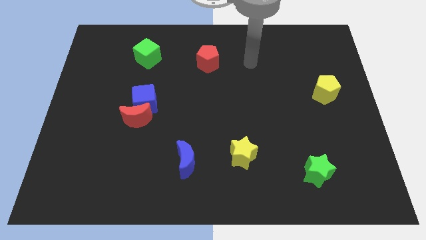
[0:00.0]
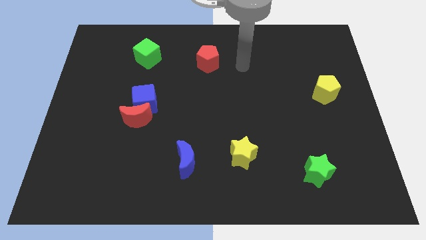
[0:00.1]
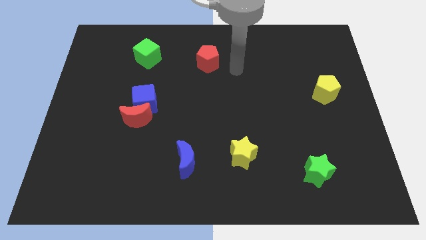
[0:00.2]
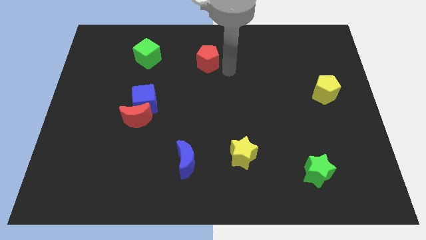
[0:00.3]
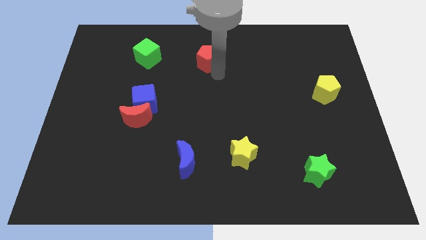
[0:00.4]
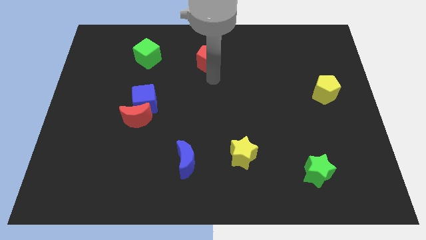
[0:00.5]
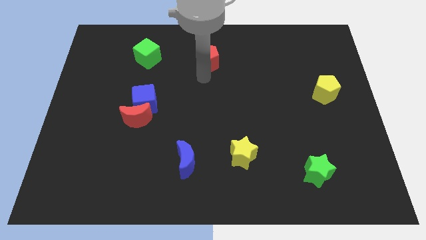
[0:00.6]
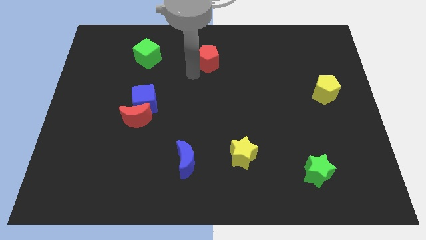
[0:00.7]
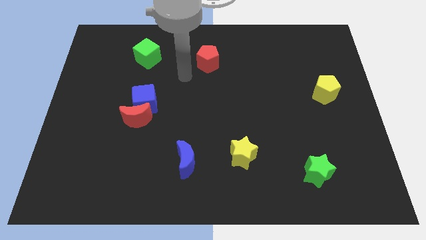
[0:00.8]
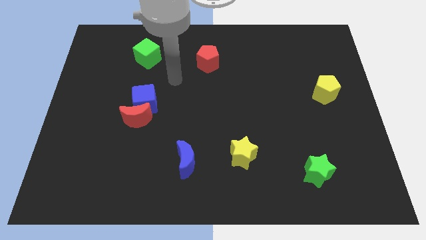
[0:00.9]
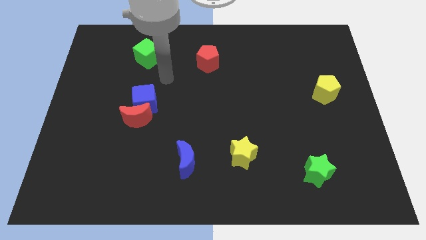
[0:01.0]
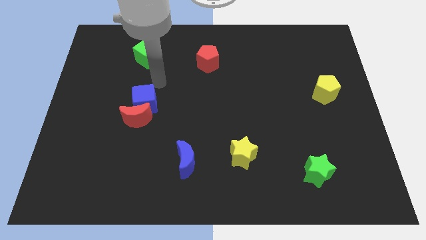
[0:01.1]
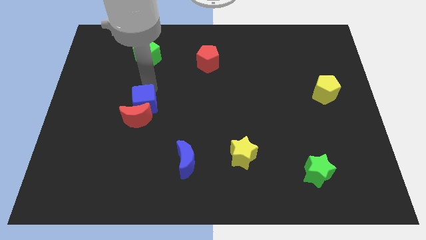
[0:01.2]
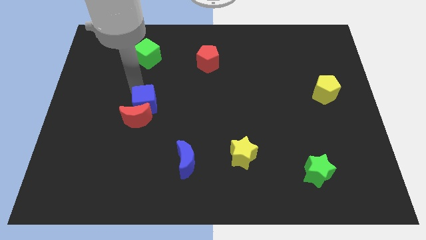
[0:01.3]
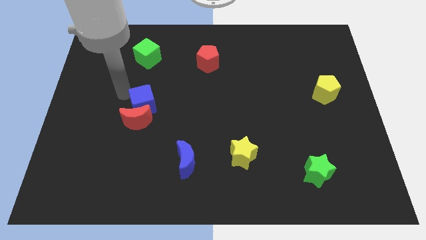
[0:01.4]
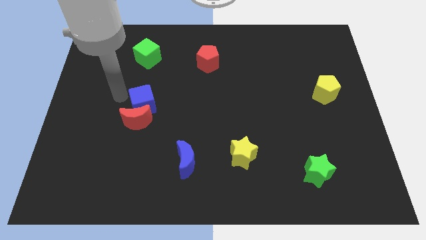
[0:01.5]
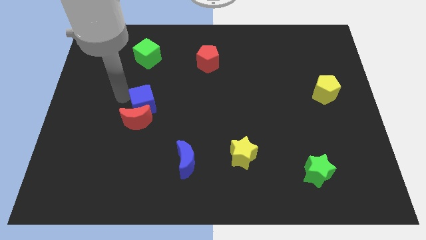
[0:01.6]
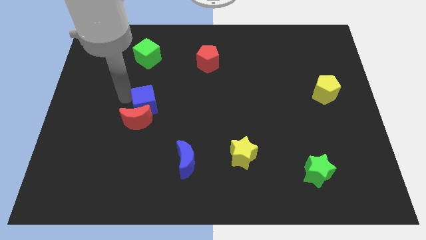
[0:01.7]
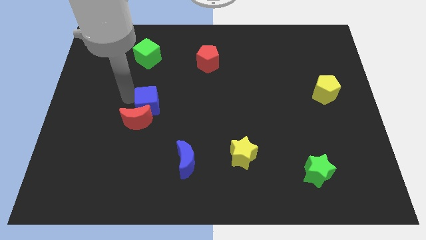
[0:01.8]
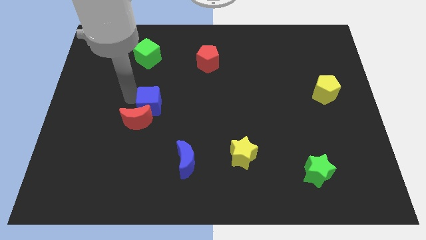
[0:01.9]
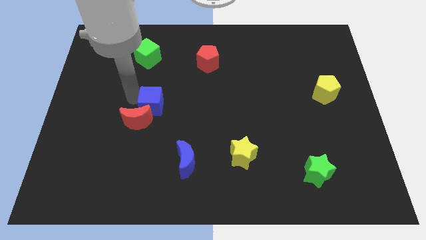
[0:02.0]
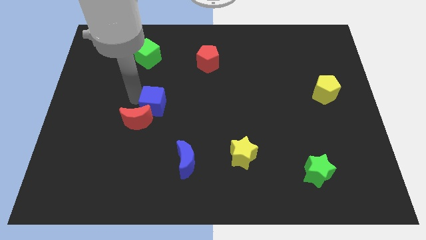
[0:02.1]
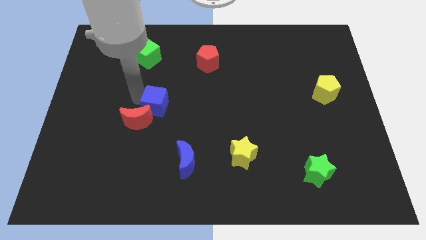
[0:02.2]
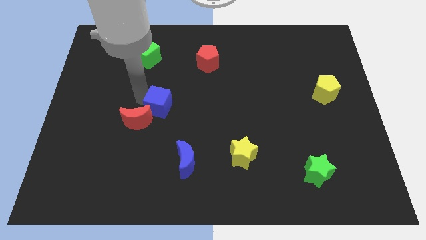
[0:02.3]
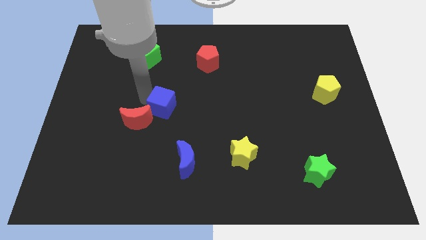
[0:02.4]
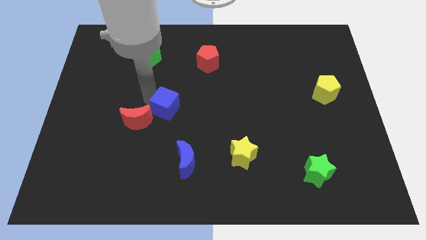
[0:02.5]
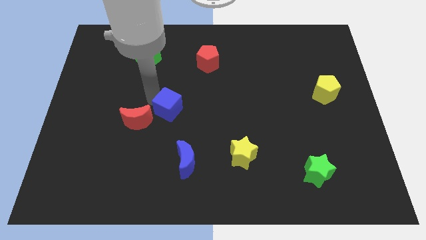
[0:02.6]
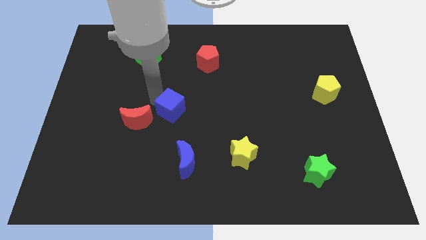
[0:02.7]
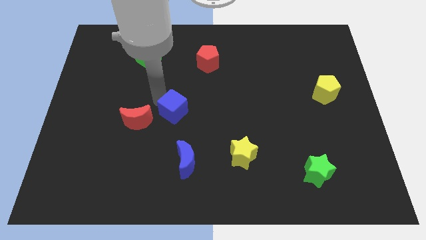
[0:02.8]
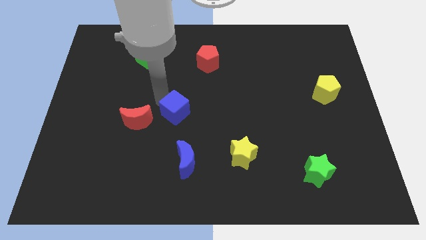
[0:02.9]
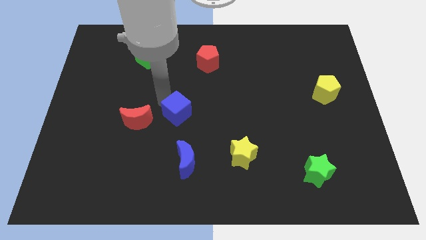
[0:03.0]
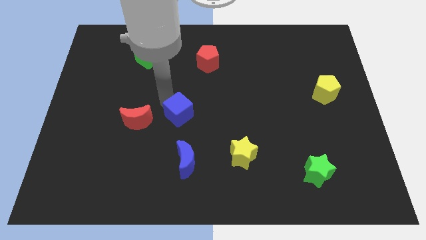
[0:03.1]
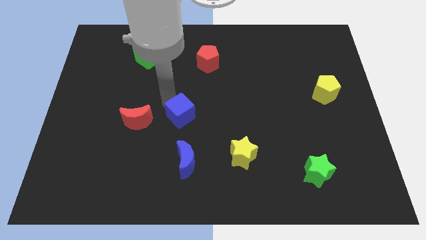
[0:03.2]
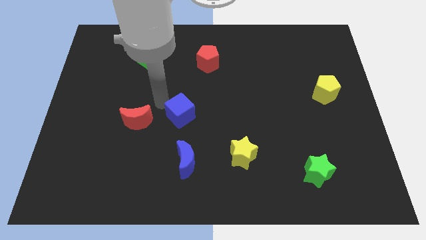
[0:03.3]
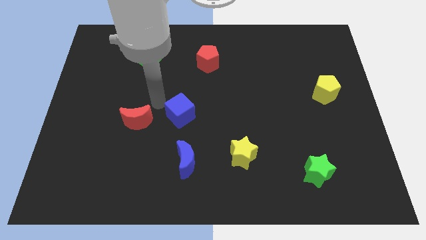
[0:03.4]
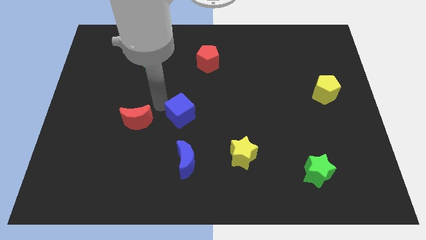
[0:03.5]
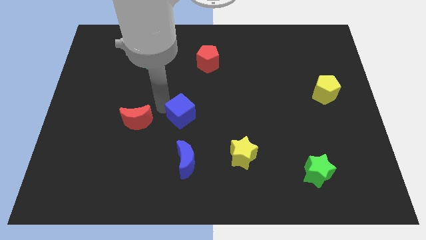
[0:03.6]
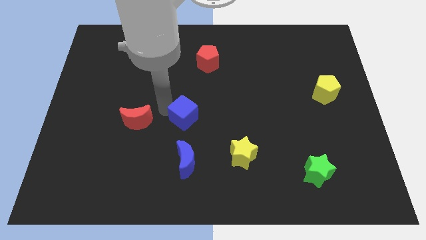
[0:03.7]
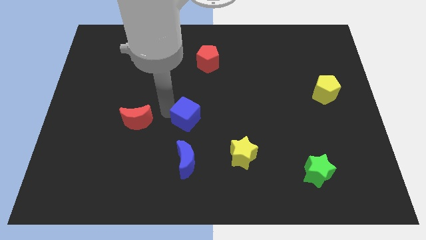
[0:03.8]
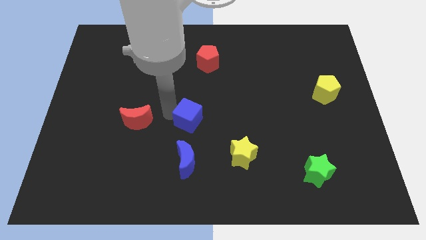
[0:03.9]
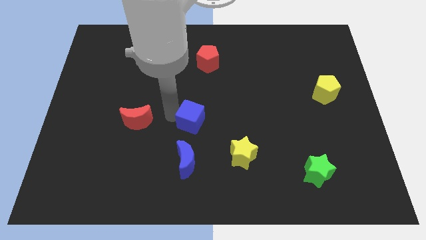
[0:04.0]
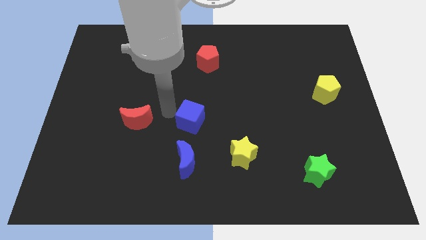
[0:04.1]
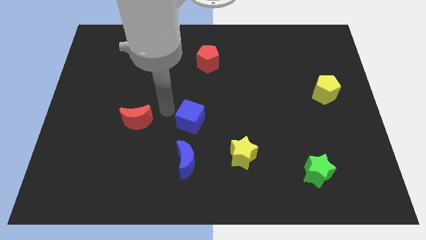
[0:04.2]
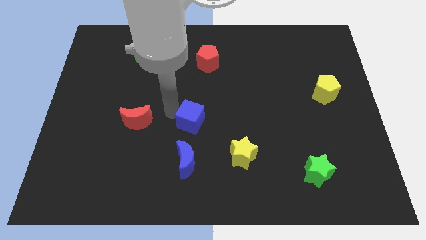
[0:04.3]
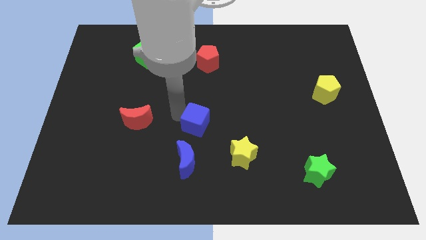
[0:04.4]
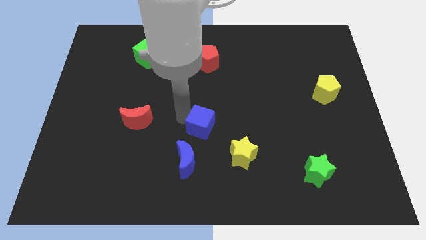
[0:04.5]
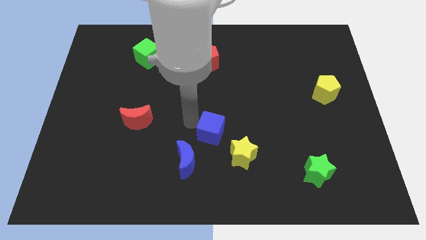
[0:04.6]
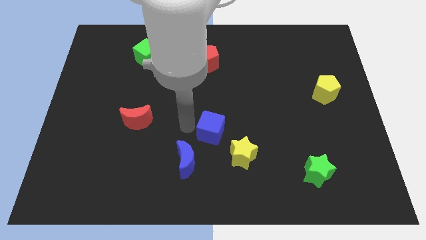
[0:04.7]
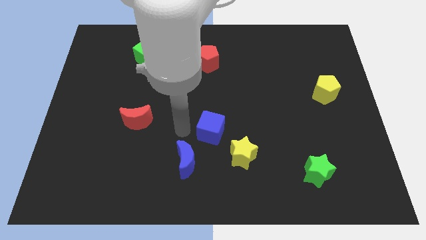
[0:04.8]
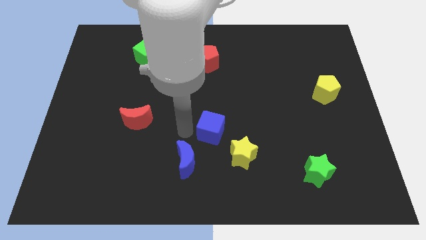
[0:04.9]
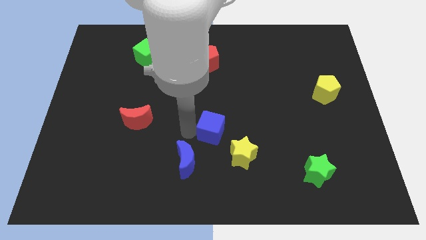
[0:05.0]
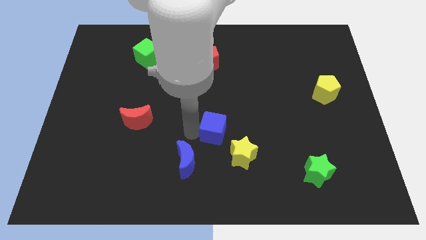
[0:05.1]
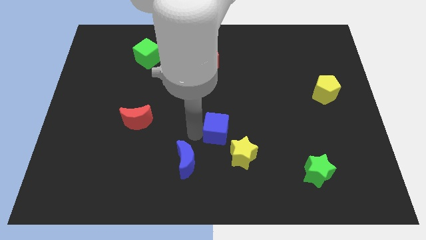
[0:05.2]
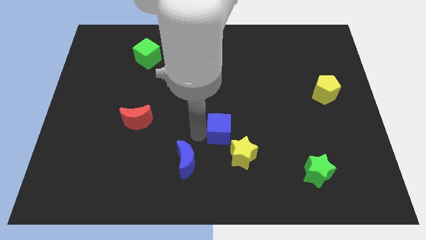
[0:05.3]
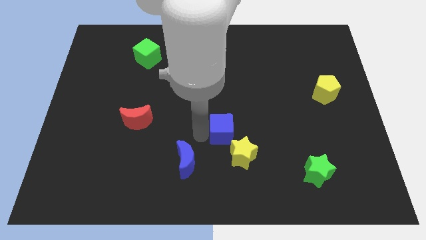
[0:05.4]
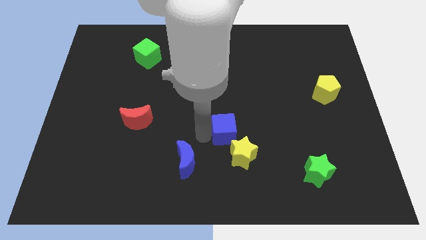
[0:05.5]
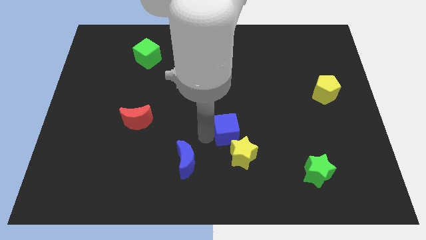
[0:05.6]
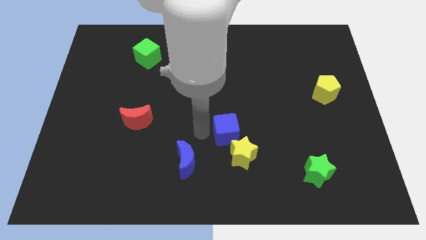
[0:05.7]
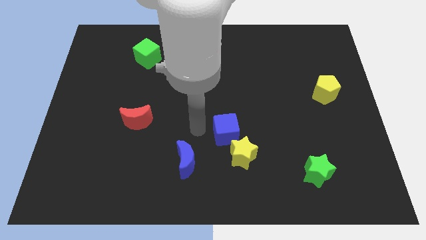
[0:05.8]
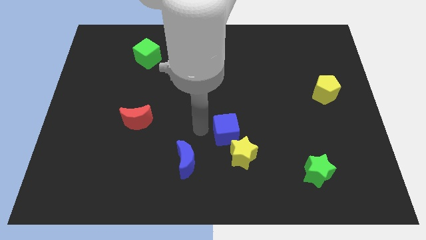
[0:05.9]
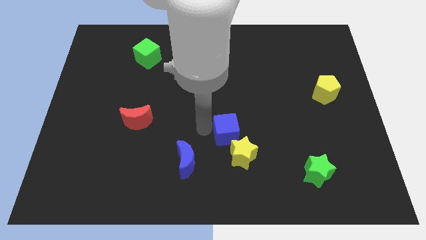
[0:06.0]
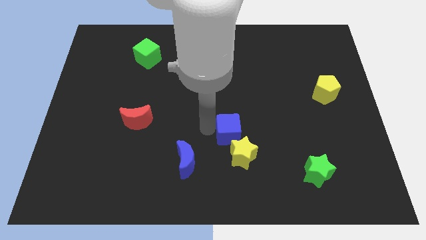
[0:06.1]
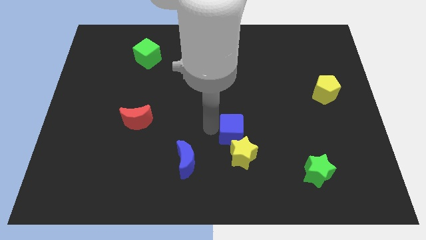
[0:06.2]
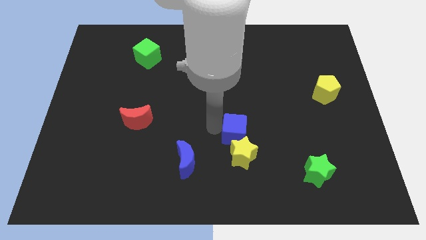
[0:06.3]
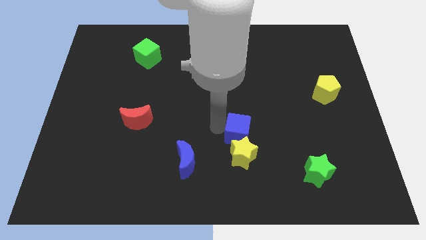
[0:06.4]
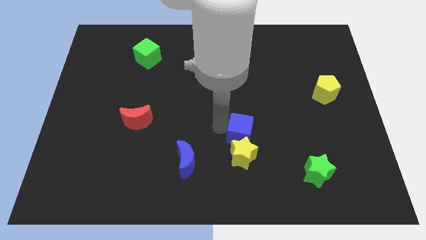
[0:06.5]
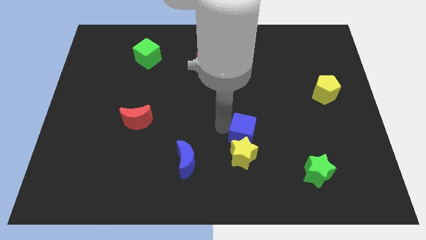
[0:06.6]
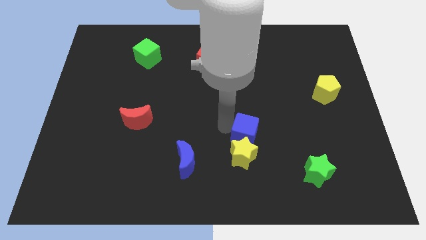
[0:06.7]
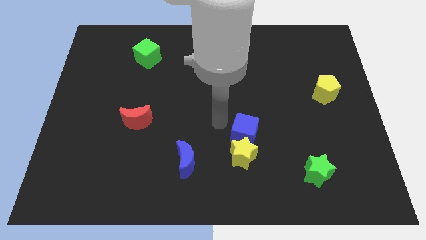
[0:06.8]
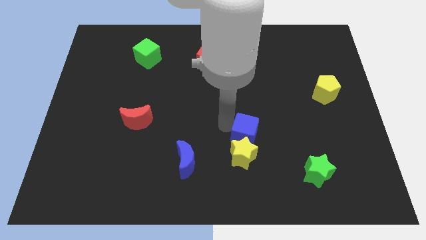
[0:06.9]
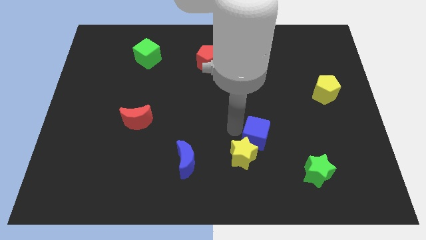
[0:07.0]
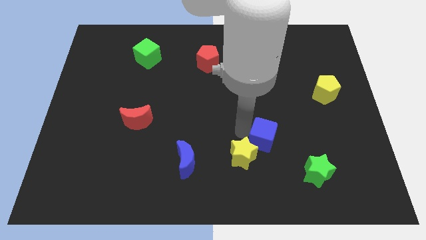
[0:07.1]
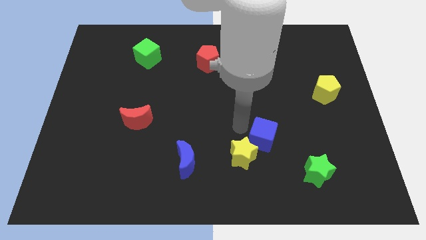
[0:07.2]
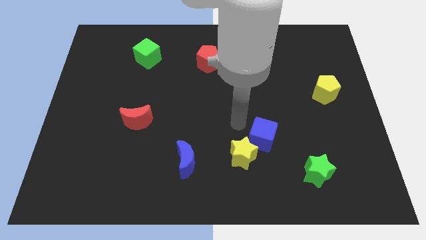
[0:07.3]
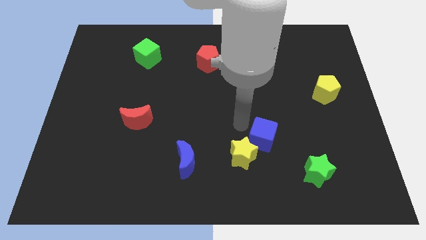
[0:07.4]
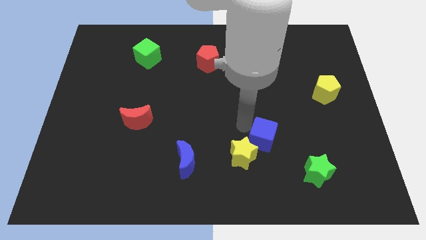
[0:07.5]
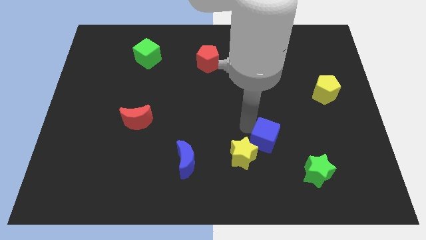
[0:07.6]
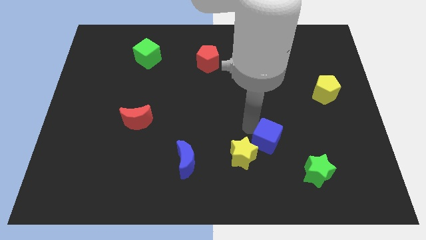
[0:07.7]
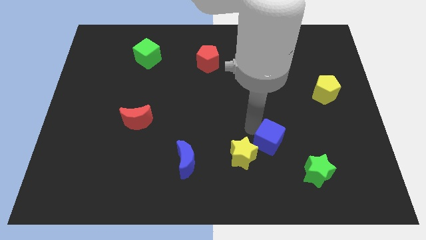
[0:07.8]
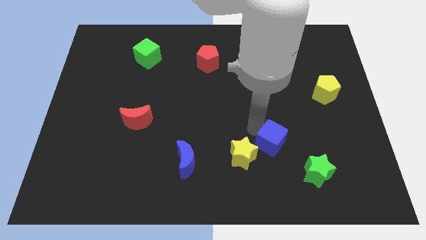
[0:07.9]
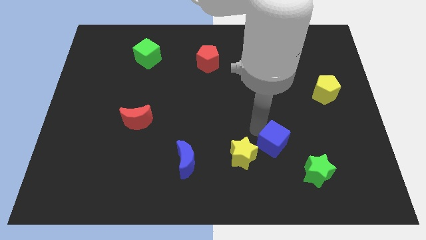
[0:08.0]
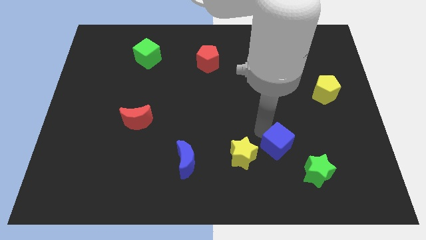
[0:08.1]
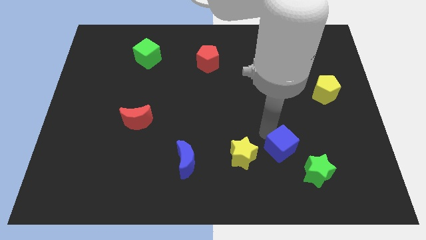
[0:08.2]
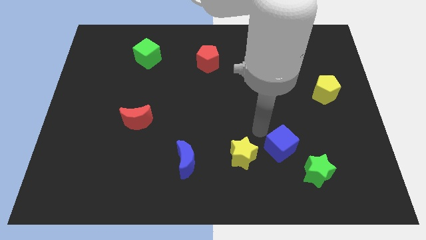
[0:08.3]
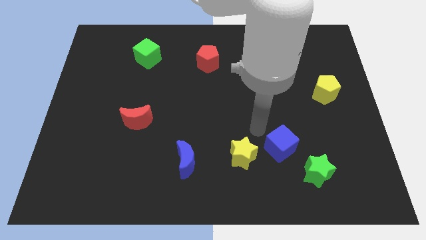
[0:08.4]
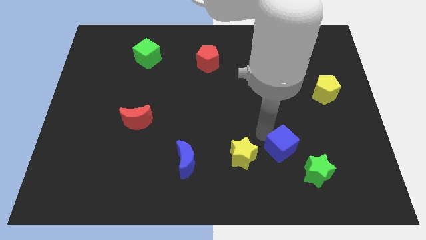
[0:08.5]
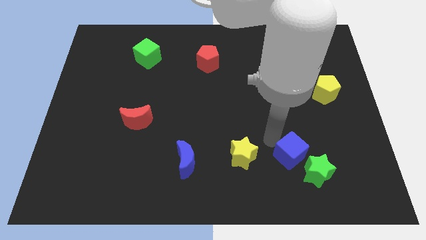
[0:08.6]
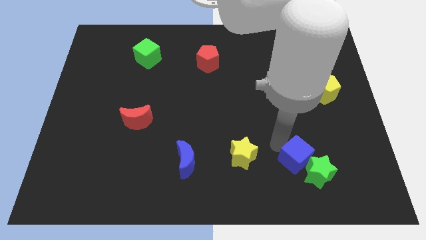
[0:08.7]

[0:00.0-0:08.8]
slide the blue cube next to the green star
